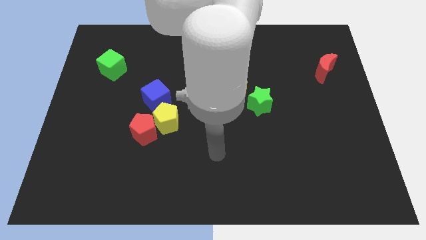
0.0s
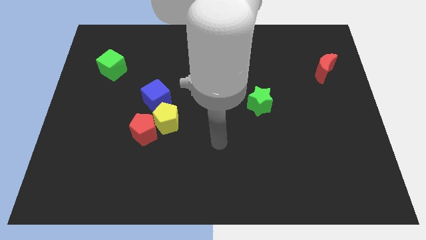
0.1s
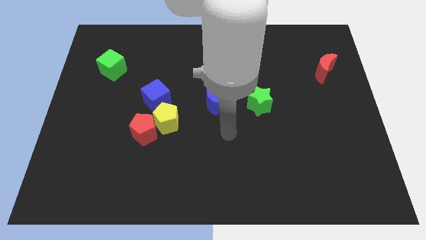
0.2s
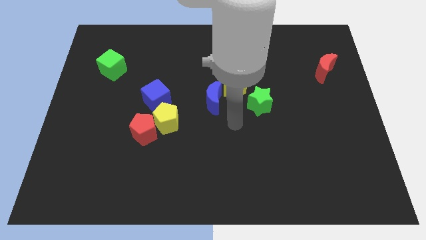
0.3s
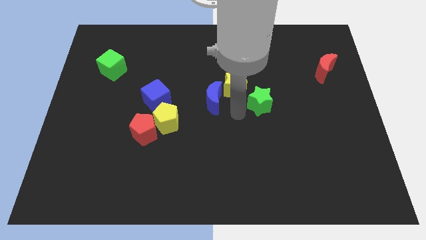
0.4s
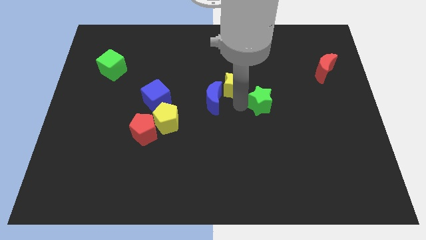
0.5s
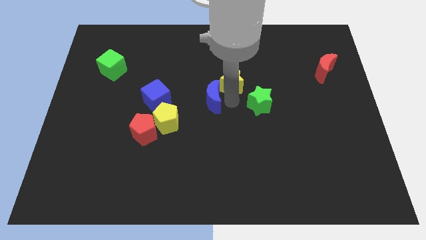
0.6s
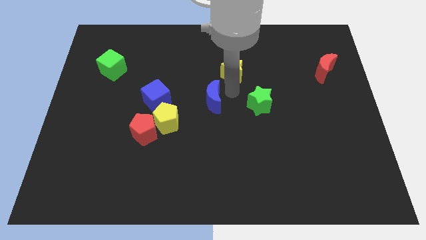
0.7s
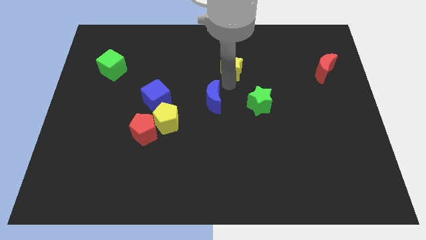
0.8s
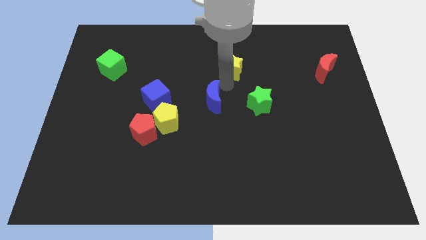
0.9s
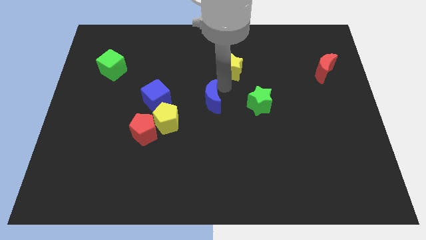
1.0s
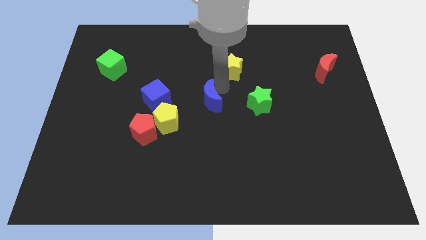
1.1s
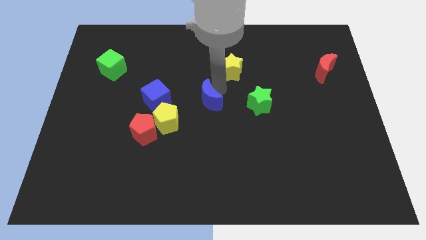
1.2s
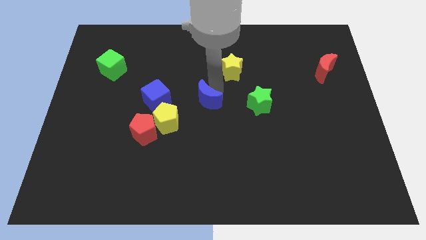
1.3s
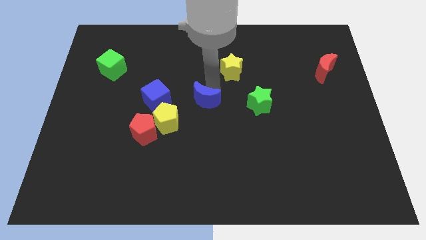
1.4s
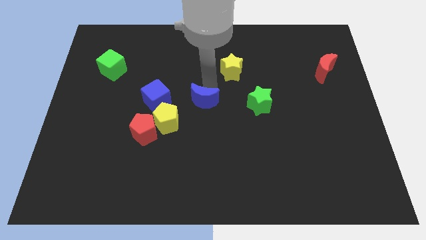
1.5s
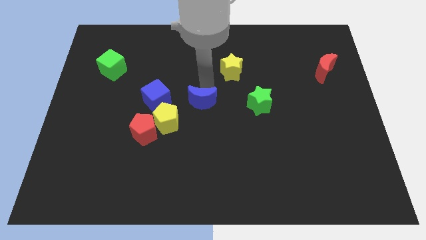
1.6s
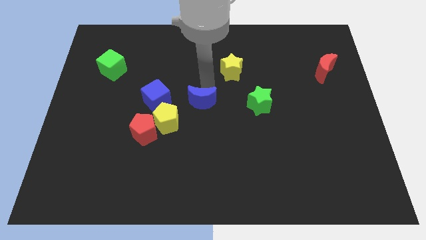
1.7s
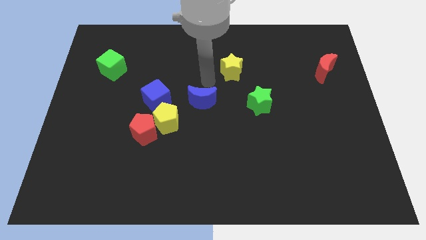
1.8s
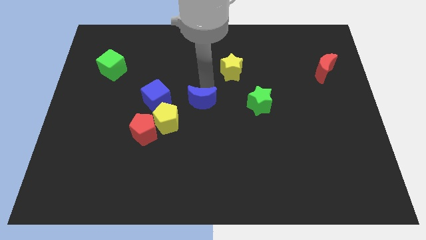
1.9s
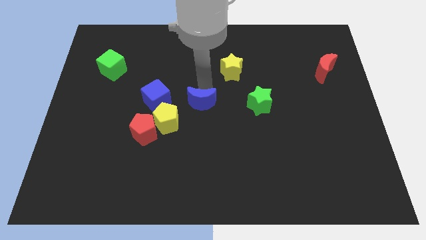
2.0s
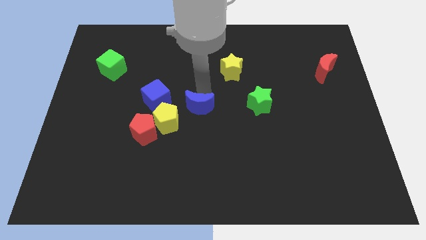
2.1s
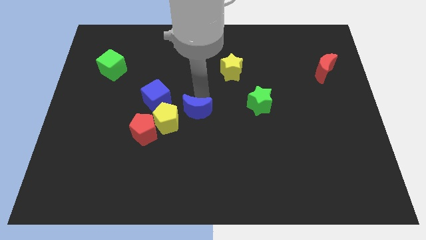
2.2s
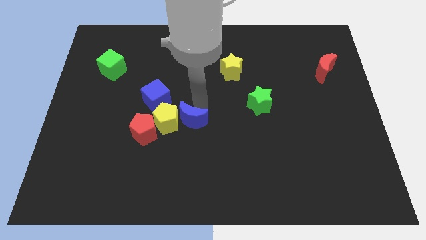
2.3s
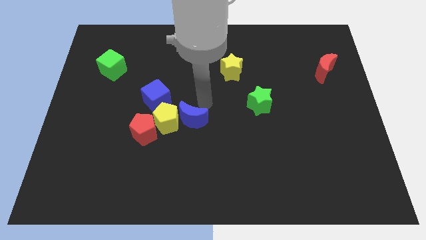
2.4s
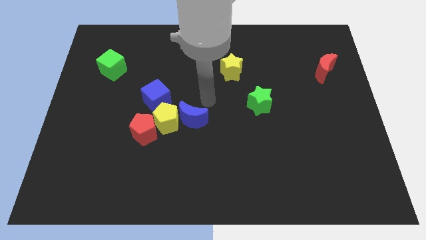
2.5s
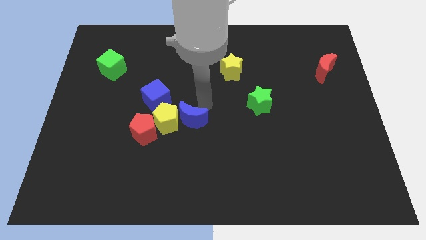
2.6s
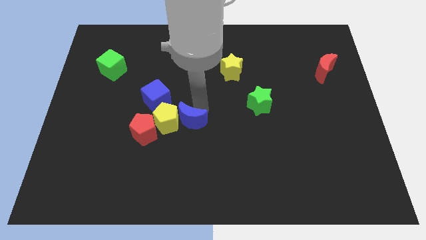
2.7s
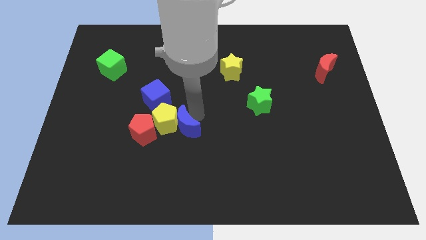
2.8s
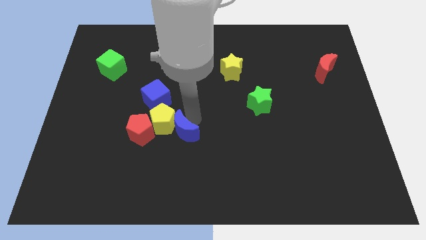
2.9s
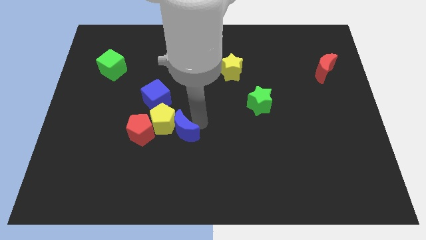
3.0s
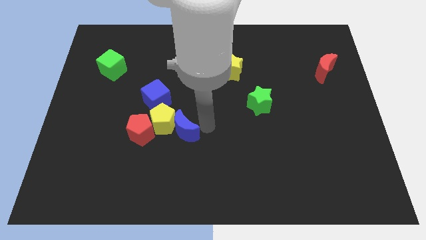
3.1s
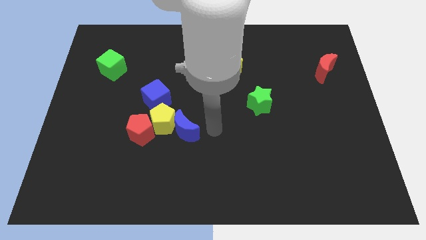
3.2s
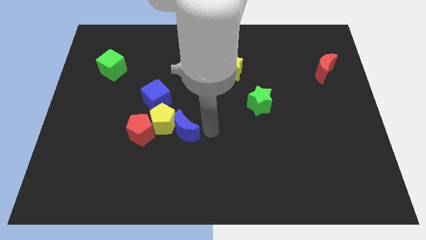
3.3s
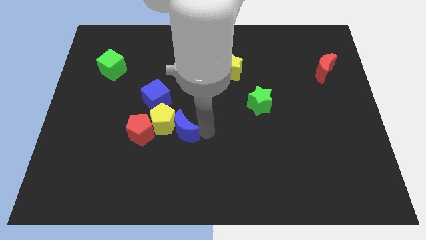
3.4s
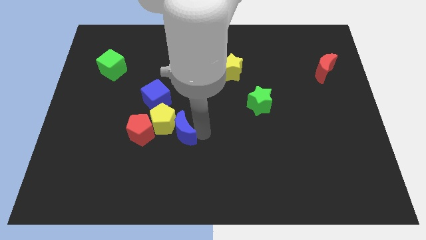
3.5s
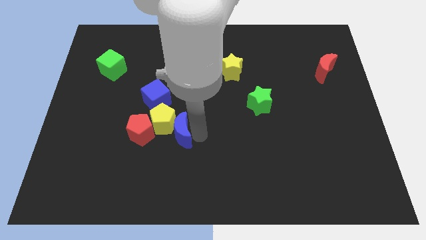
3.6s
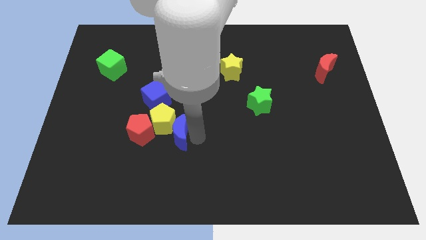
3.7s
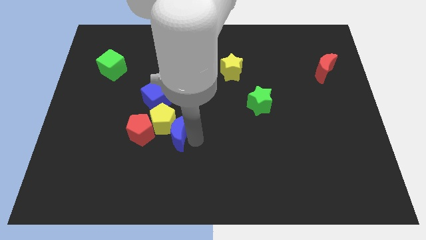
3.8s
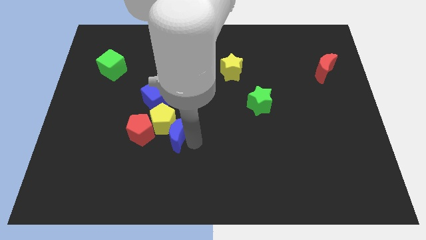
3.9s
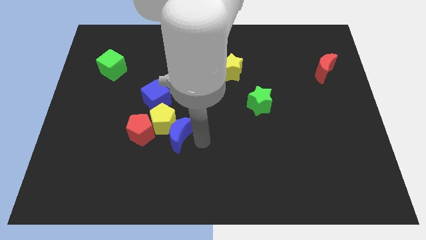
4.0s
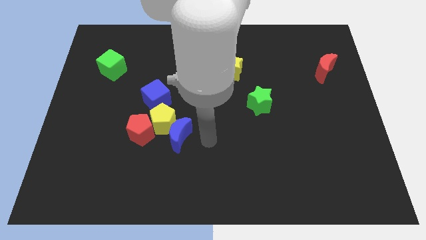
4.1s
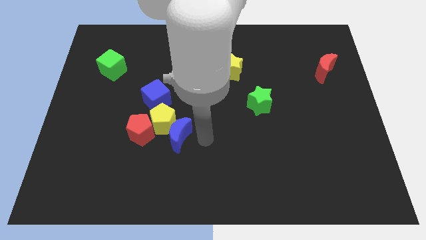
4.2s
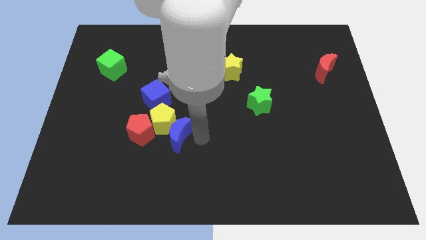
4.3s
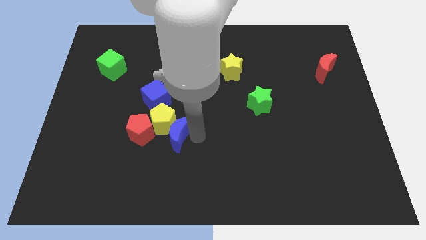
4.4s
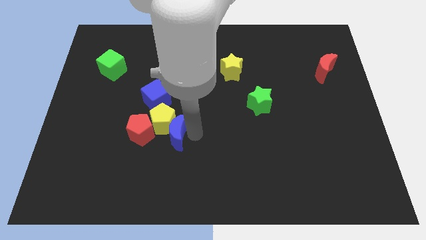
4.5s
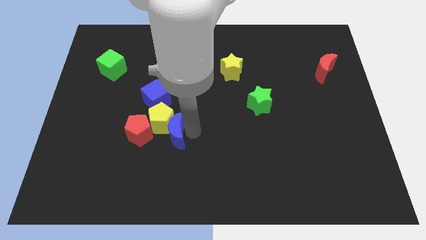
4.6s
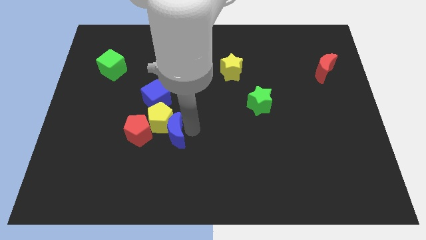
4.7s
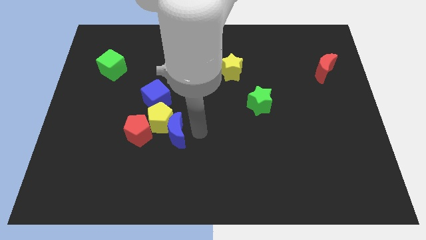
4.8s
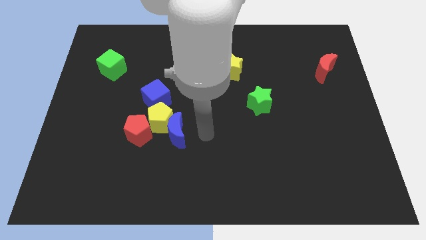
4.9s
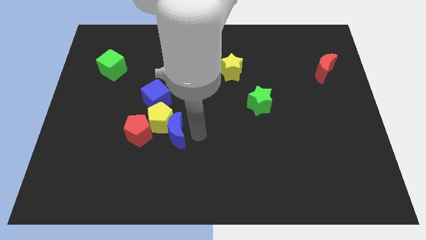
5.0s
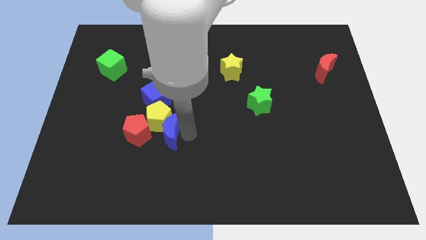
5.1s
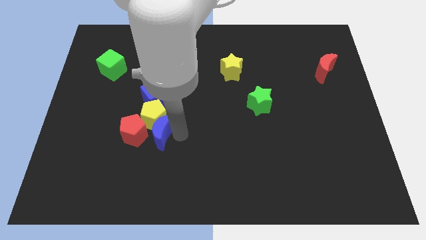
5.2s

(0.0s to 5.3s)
put the blue moon next to the red pentagon

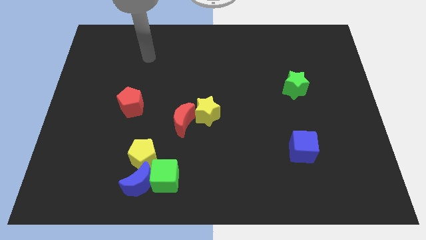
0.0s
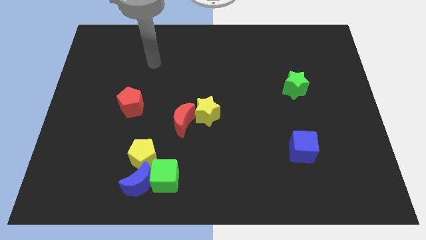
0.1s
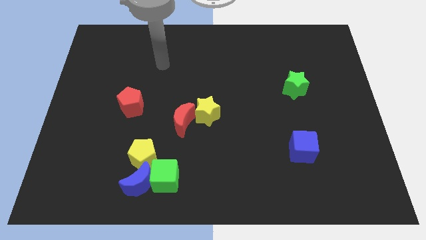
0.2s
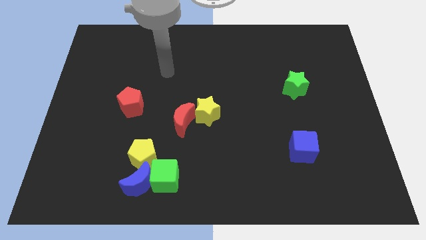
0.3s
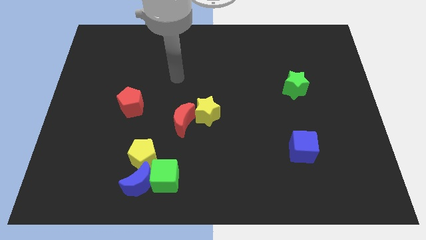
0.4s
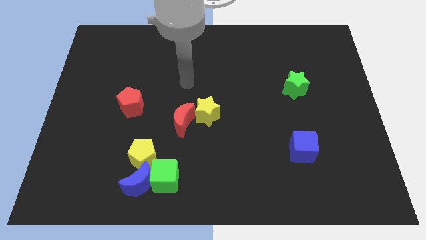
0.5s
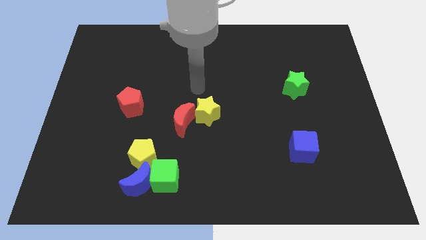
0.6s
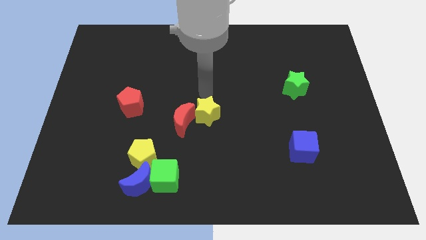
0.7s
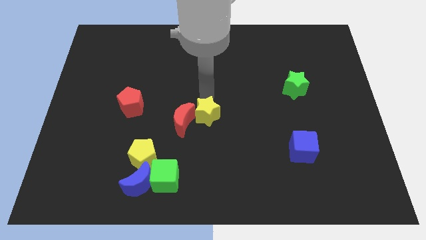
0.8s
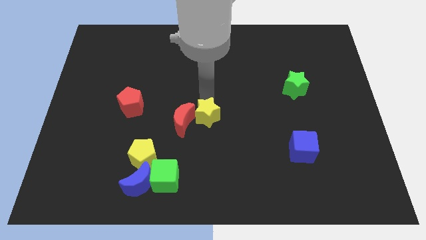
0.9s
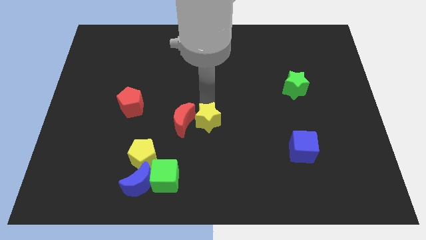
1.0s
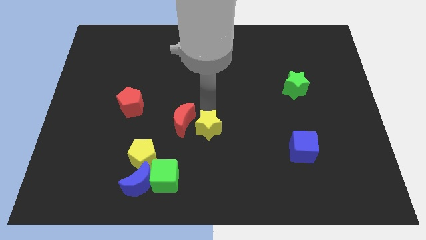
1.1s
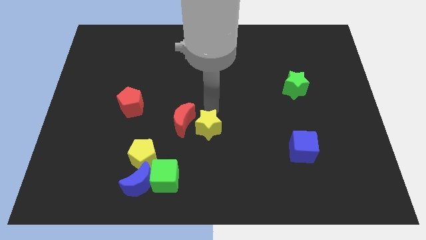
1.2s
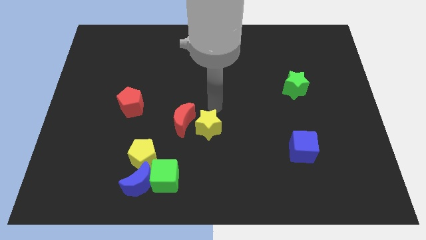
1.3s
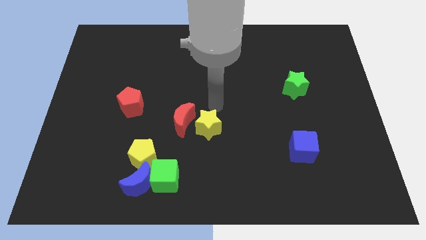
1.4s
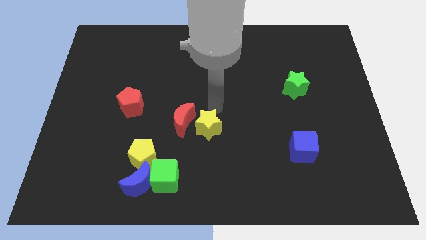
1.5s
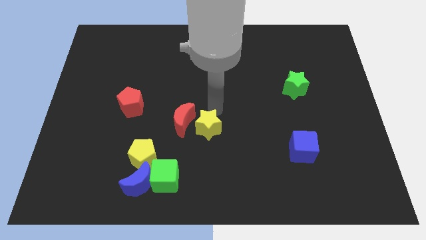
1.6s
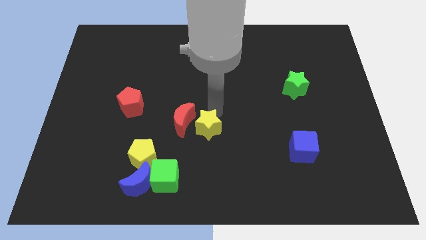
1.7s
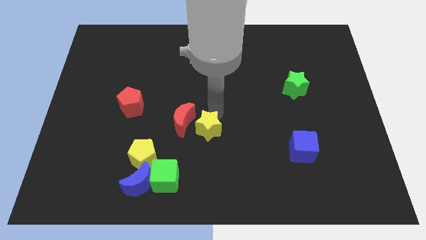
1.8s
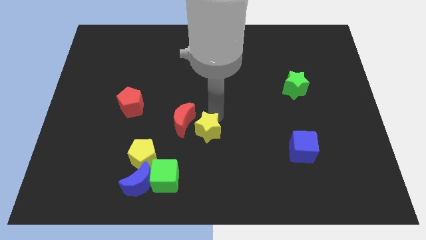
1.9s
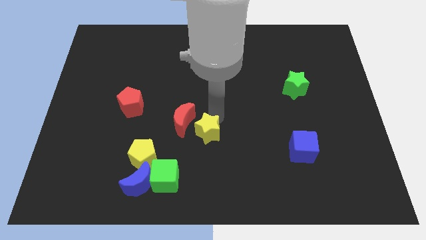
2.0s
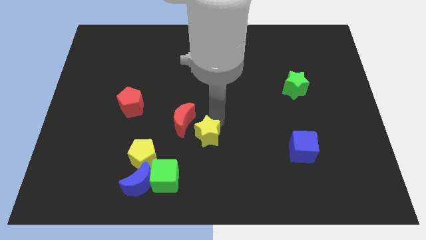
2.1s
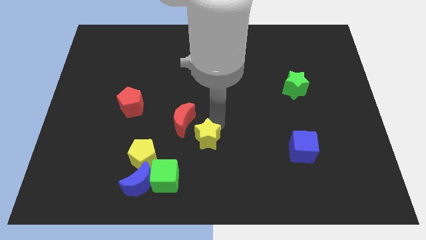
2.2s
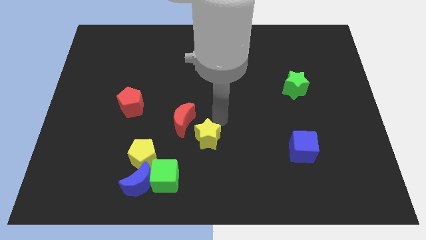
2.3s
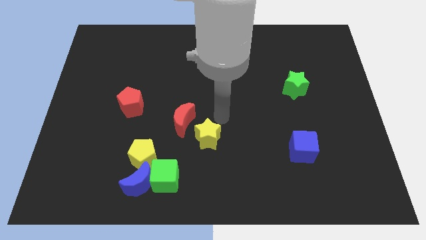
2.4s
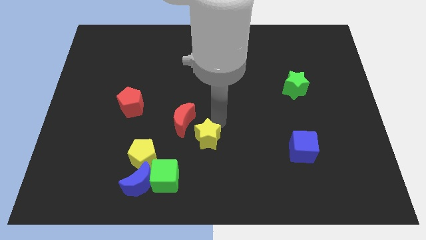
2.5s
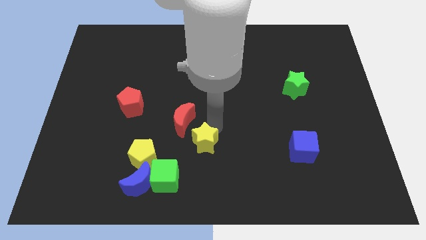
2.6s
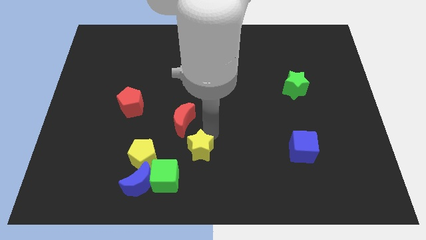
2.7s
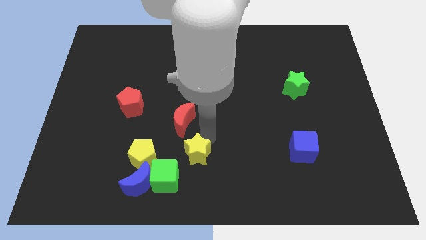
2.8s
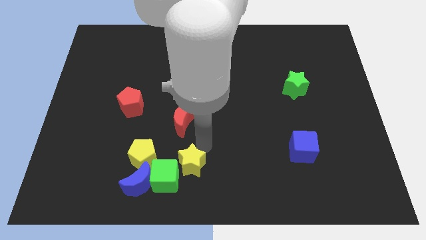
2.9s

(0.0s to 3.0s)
slide the yellow star close to the green cube

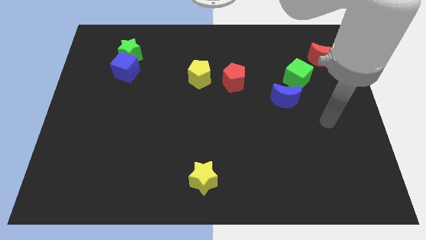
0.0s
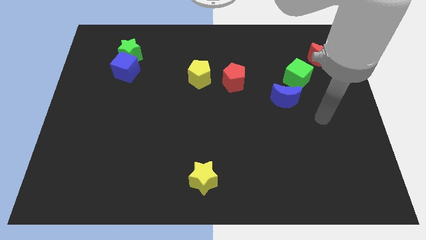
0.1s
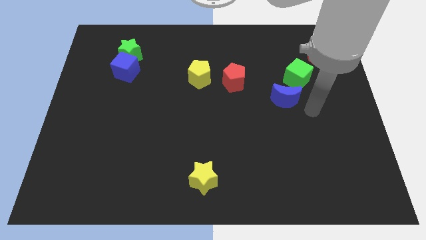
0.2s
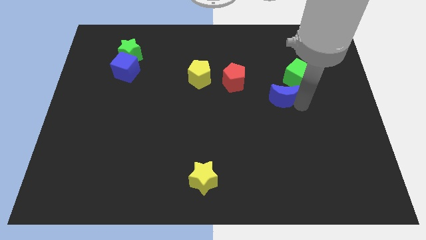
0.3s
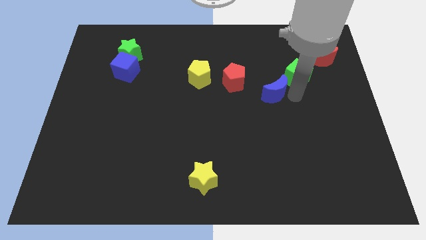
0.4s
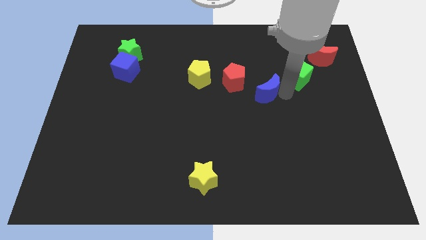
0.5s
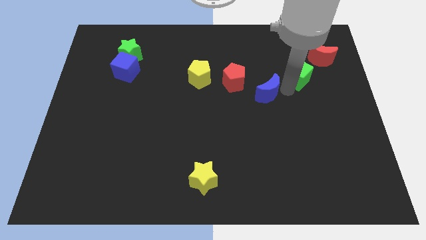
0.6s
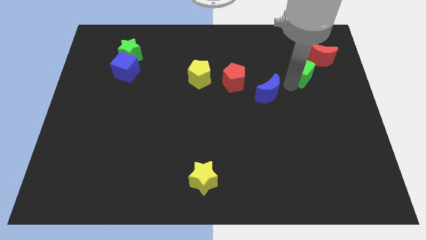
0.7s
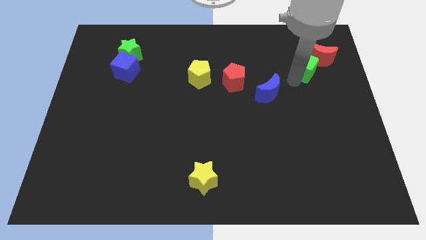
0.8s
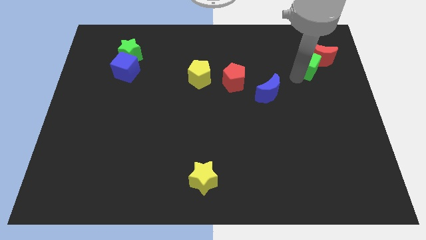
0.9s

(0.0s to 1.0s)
put the green cube to the red moon
